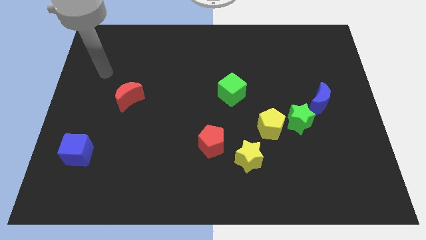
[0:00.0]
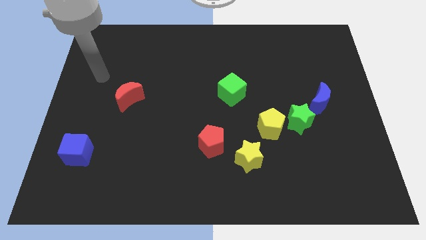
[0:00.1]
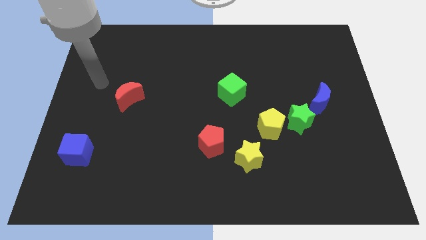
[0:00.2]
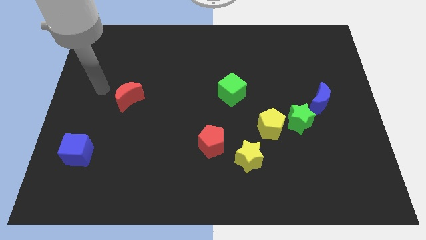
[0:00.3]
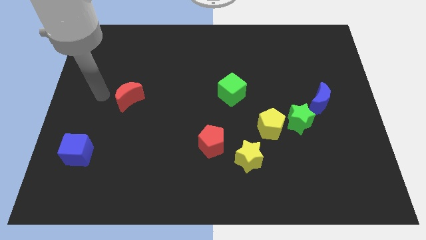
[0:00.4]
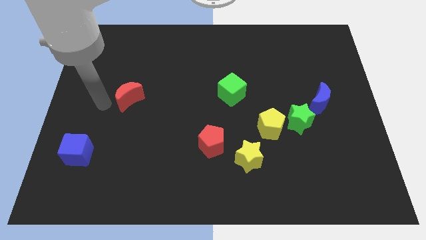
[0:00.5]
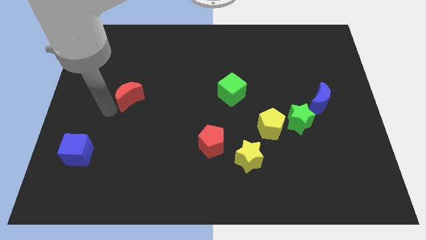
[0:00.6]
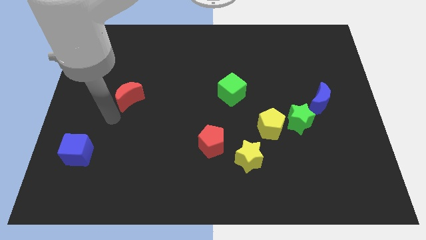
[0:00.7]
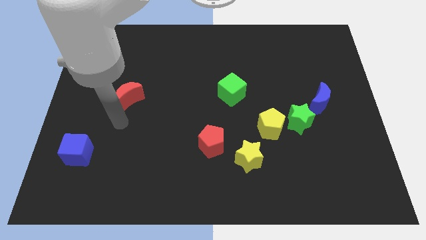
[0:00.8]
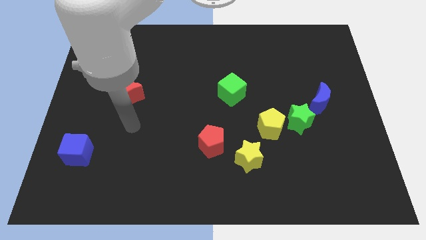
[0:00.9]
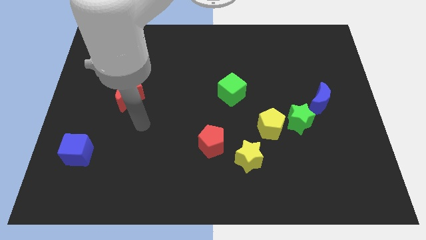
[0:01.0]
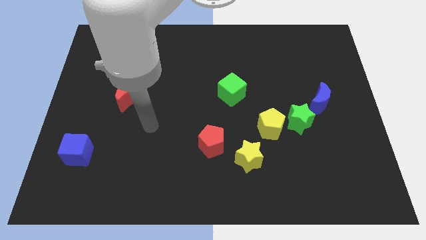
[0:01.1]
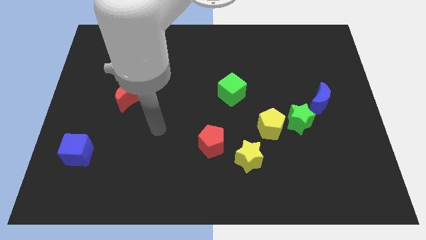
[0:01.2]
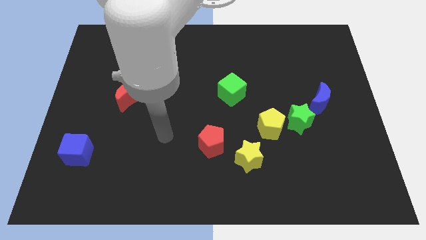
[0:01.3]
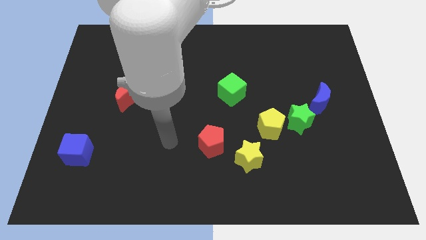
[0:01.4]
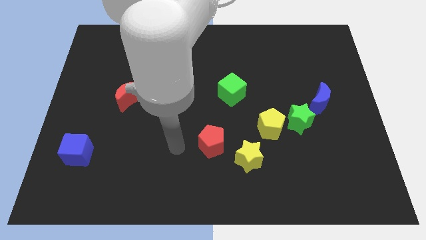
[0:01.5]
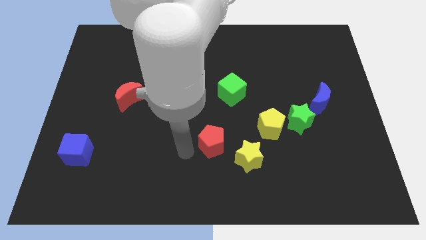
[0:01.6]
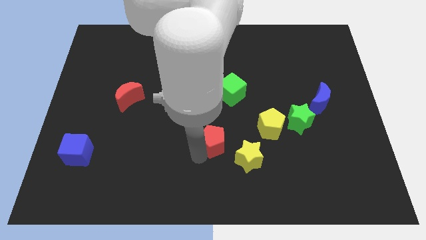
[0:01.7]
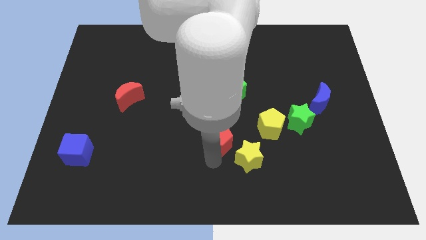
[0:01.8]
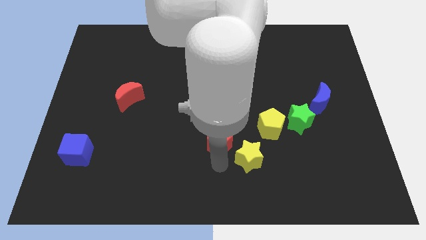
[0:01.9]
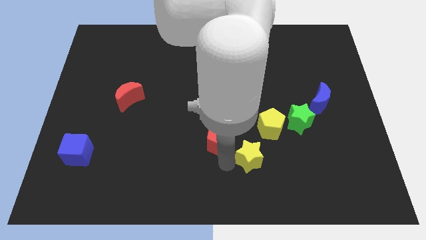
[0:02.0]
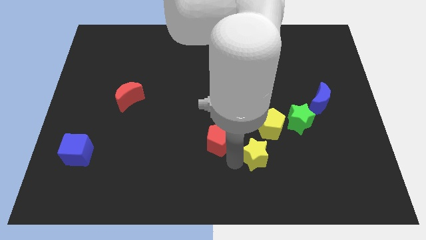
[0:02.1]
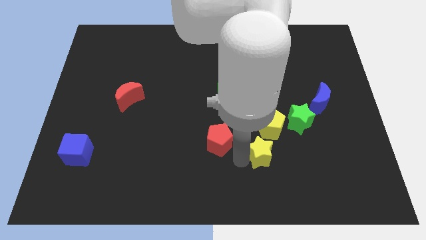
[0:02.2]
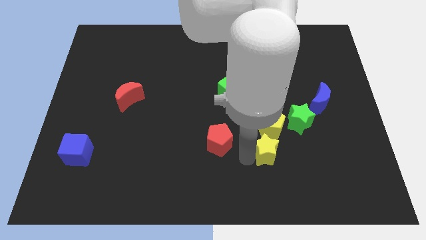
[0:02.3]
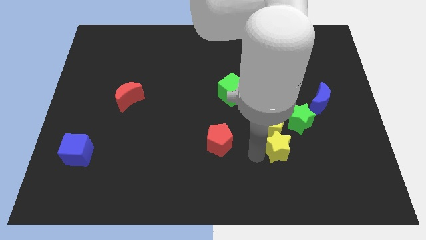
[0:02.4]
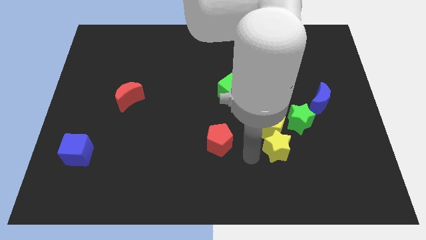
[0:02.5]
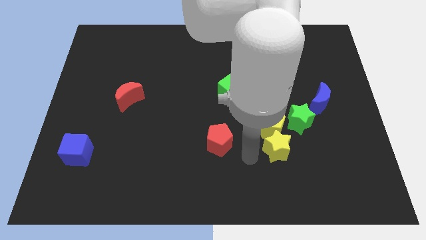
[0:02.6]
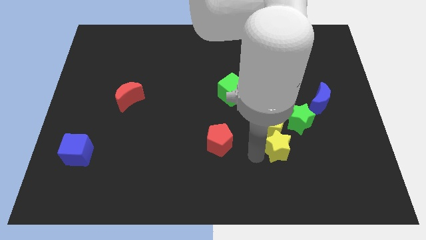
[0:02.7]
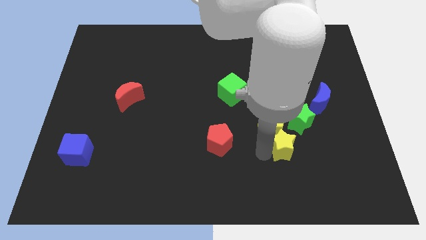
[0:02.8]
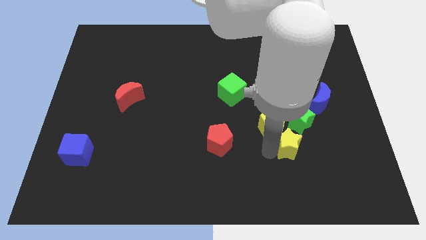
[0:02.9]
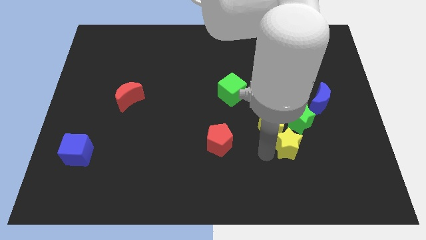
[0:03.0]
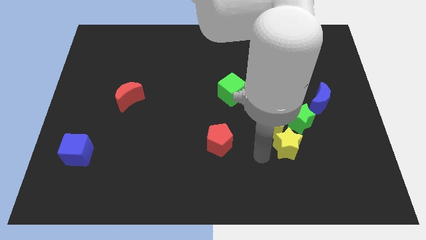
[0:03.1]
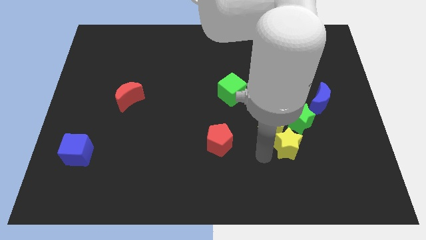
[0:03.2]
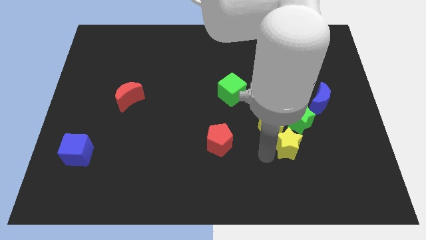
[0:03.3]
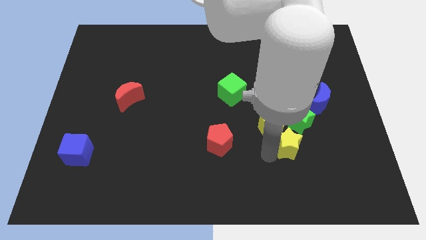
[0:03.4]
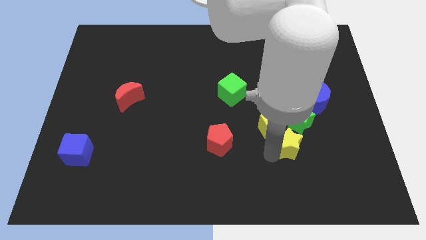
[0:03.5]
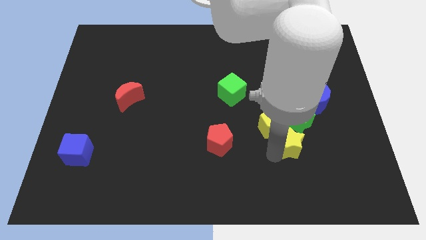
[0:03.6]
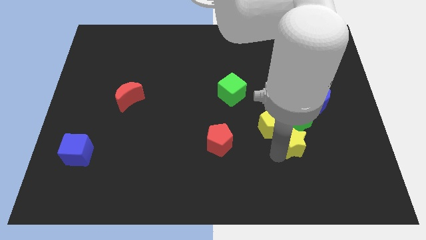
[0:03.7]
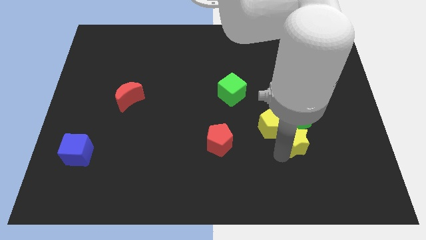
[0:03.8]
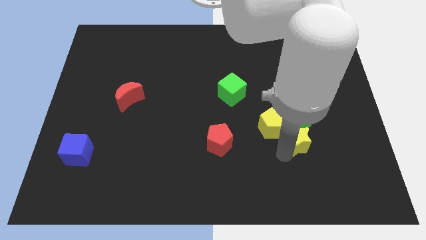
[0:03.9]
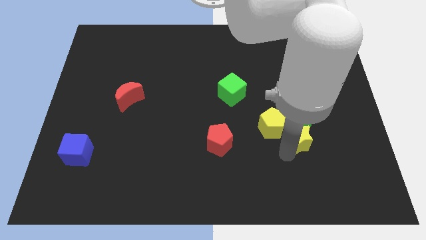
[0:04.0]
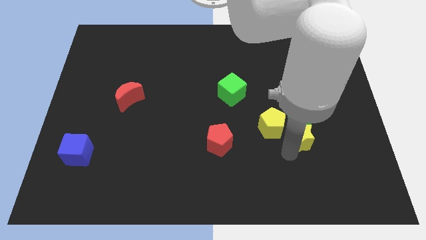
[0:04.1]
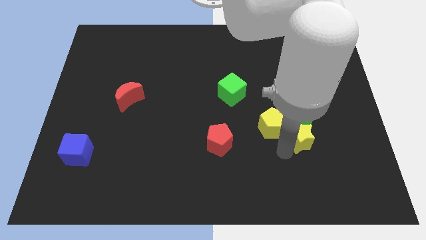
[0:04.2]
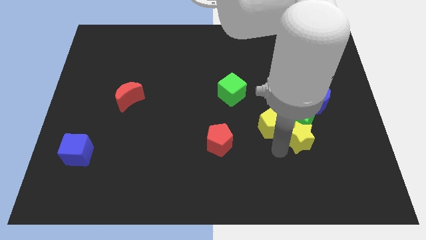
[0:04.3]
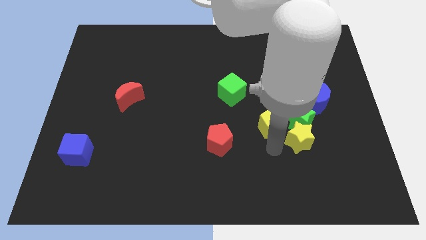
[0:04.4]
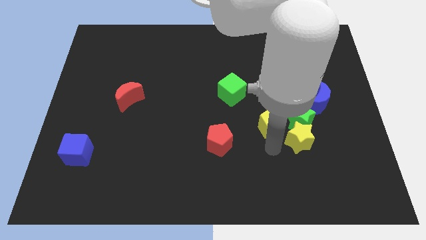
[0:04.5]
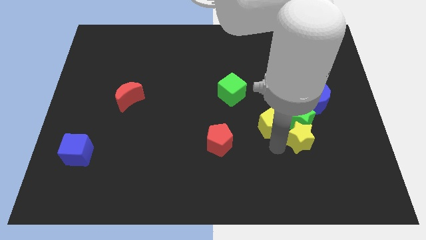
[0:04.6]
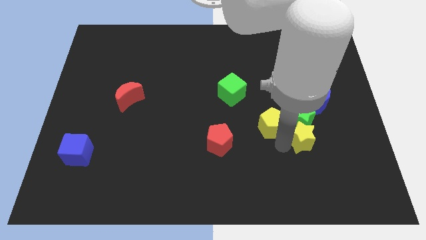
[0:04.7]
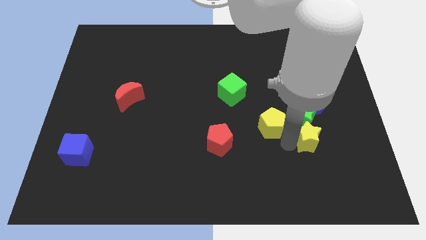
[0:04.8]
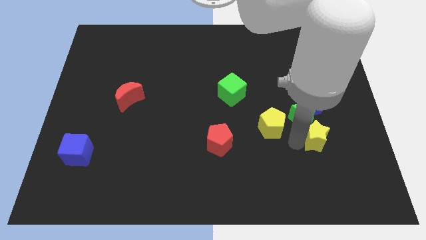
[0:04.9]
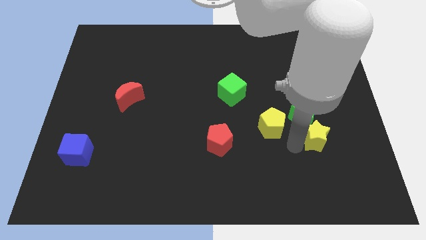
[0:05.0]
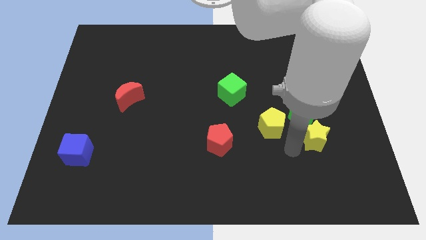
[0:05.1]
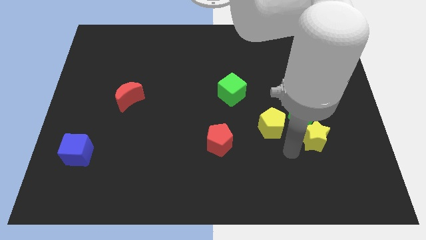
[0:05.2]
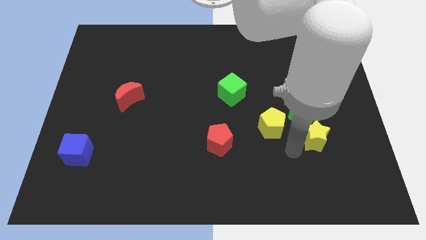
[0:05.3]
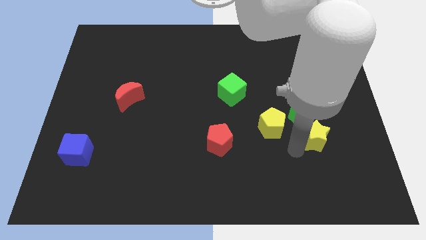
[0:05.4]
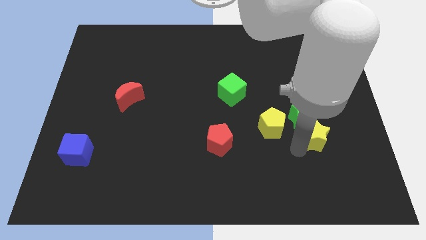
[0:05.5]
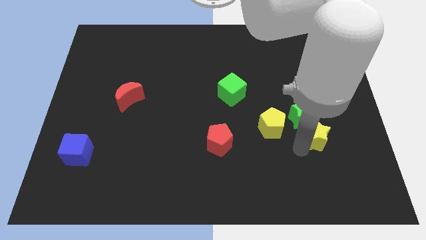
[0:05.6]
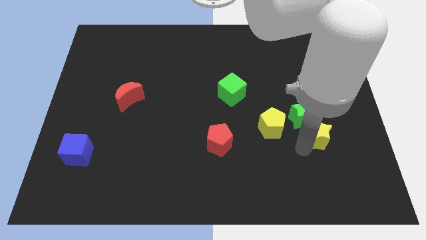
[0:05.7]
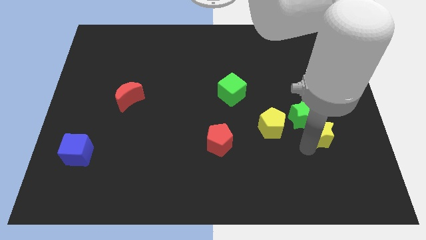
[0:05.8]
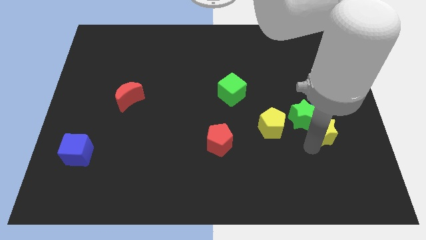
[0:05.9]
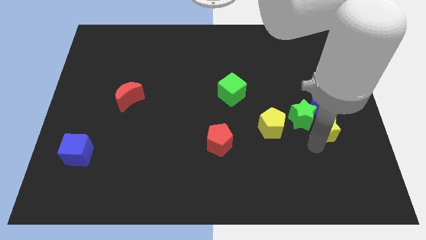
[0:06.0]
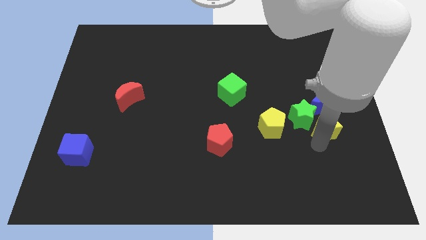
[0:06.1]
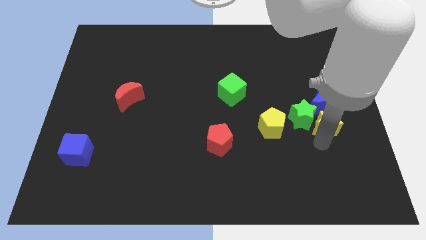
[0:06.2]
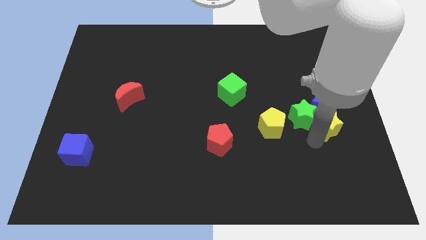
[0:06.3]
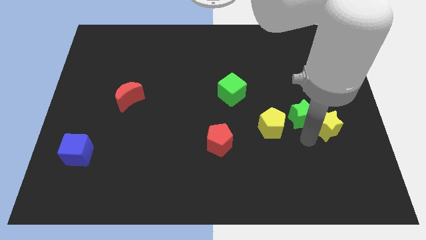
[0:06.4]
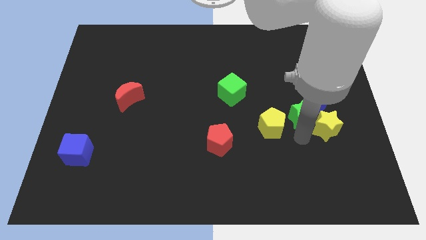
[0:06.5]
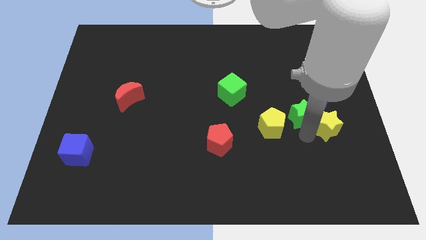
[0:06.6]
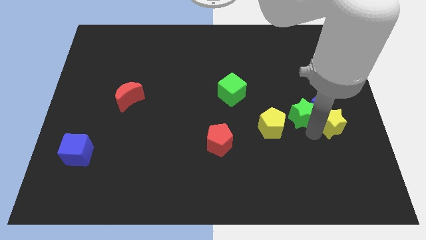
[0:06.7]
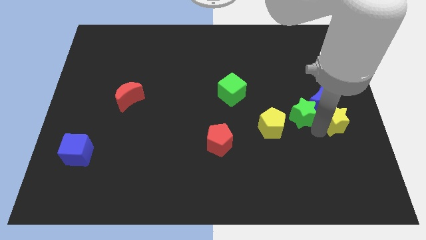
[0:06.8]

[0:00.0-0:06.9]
move the yellow star to the right side of the board
